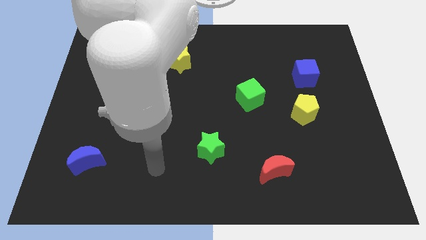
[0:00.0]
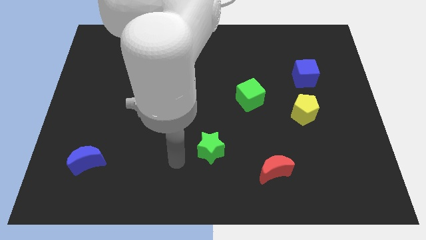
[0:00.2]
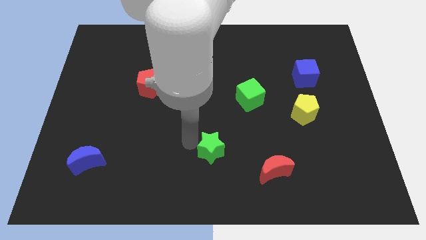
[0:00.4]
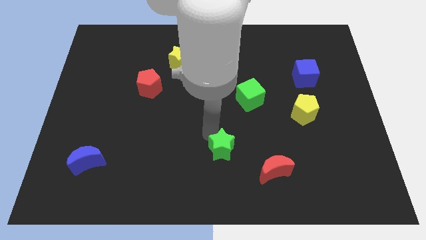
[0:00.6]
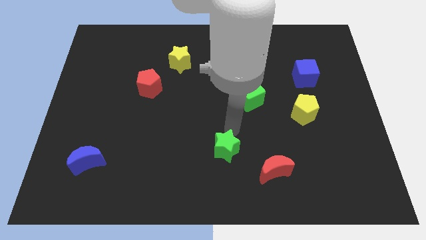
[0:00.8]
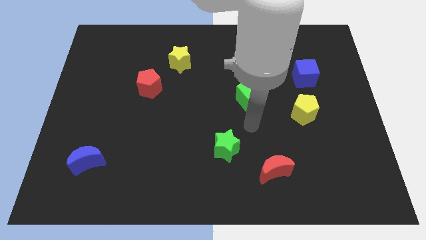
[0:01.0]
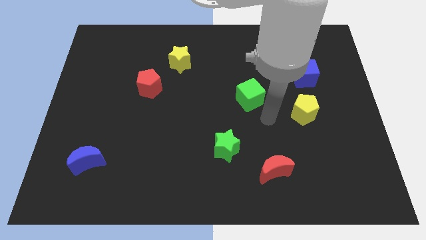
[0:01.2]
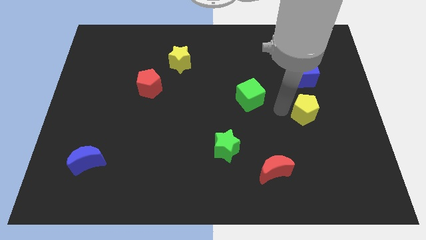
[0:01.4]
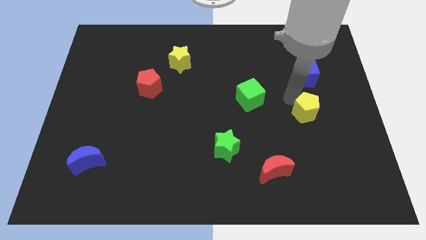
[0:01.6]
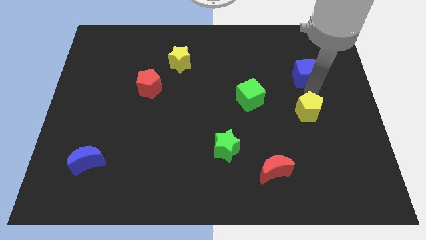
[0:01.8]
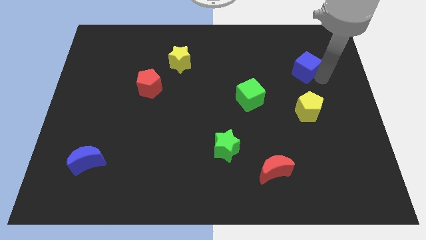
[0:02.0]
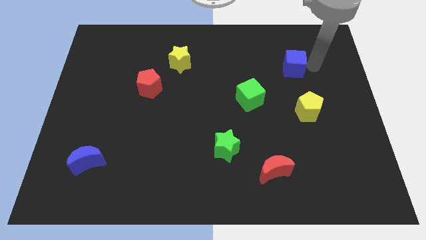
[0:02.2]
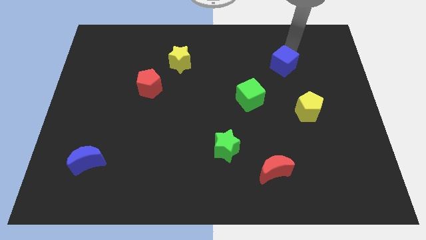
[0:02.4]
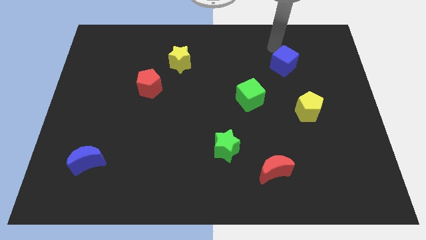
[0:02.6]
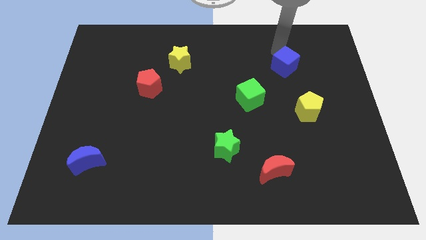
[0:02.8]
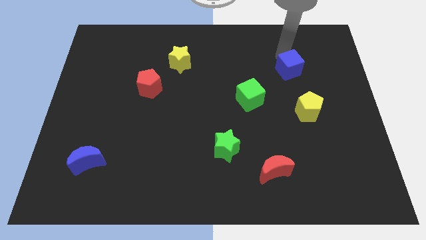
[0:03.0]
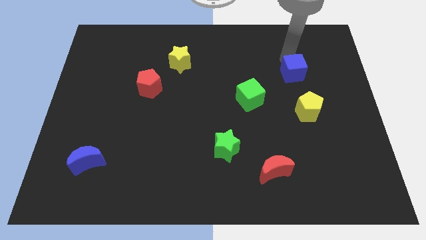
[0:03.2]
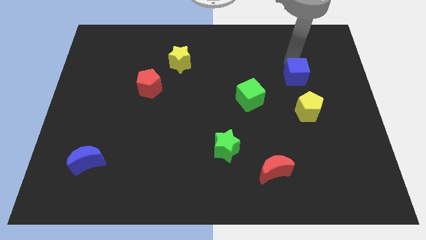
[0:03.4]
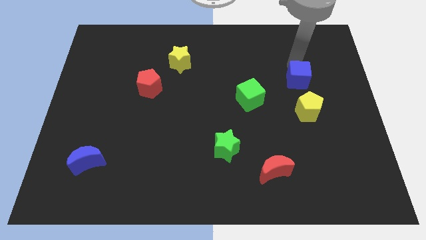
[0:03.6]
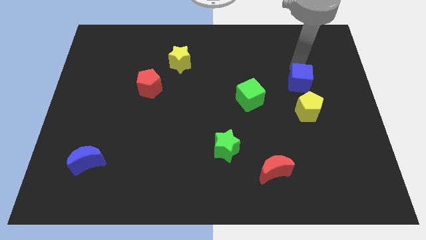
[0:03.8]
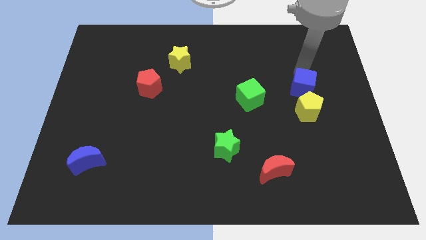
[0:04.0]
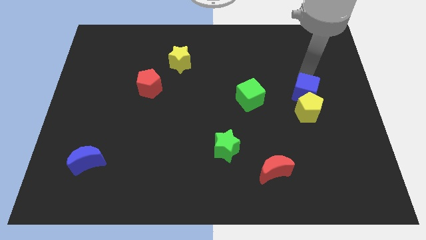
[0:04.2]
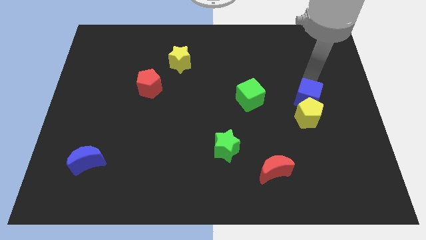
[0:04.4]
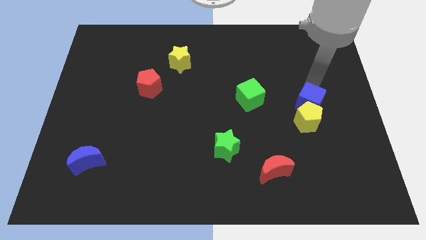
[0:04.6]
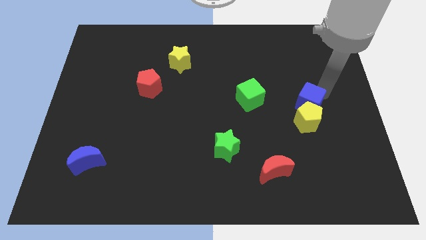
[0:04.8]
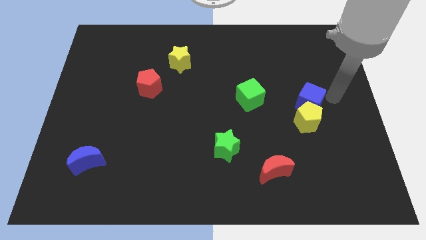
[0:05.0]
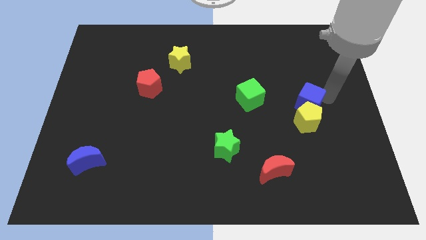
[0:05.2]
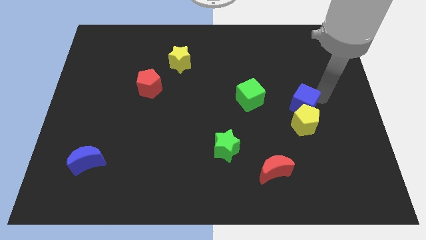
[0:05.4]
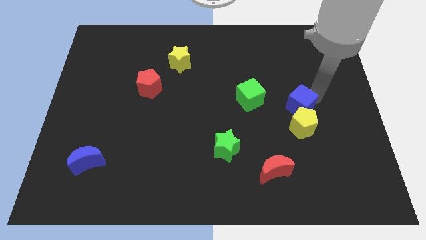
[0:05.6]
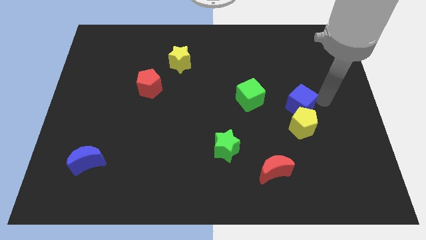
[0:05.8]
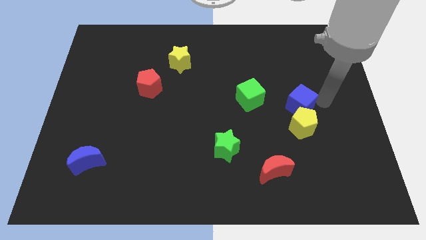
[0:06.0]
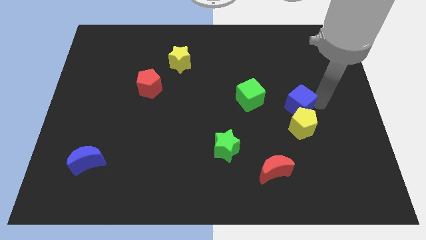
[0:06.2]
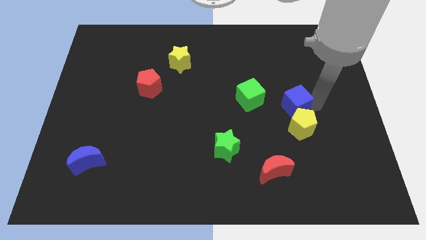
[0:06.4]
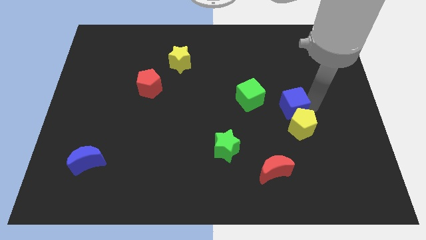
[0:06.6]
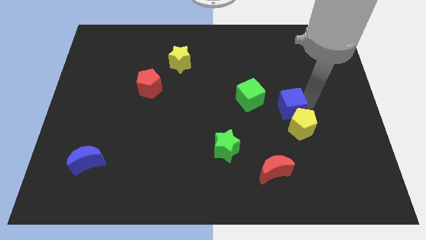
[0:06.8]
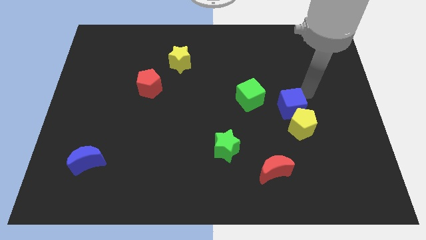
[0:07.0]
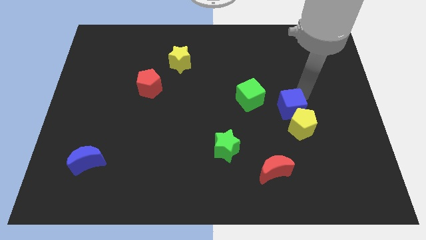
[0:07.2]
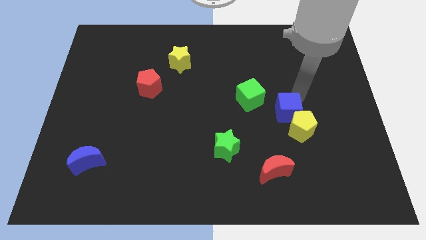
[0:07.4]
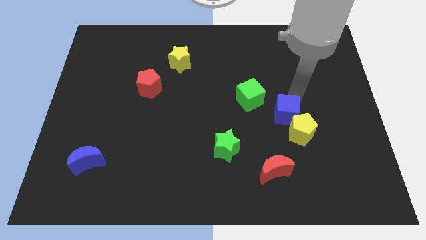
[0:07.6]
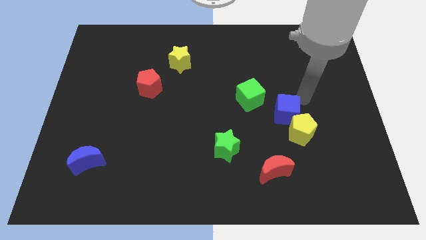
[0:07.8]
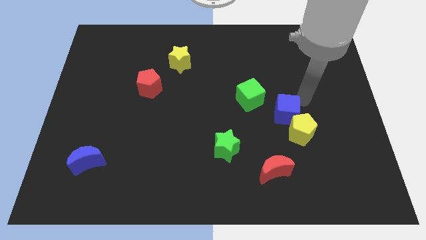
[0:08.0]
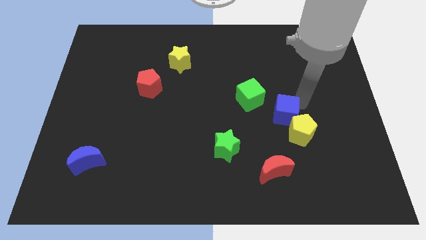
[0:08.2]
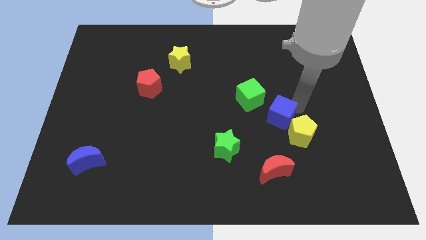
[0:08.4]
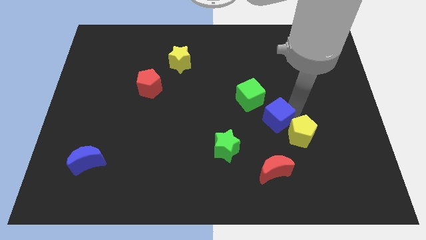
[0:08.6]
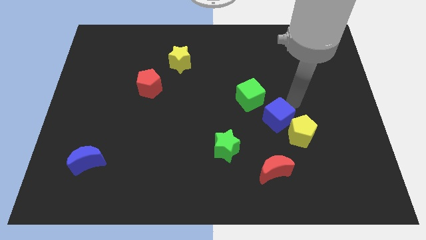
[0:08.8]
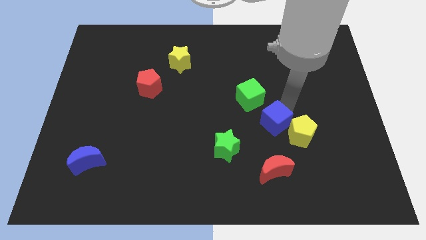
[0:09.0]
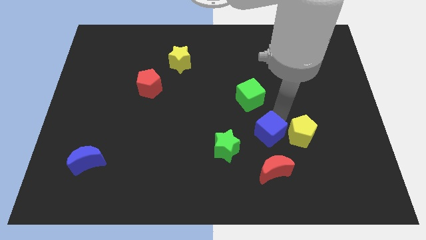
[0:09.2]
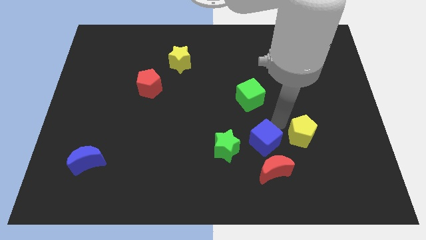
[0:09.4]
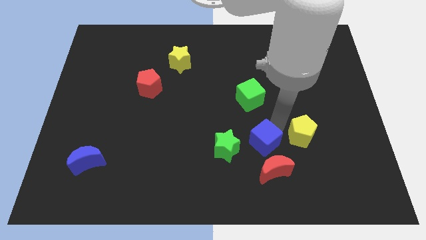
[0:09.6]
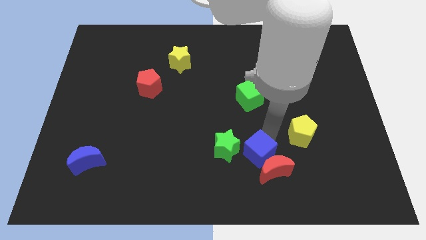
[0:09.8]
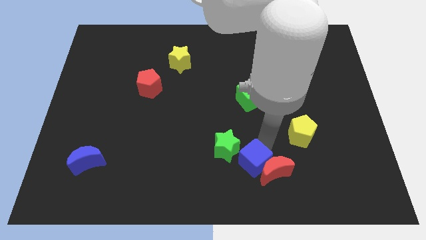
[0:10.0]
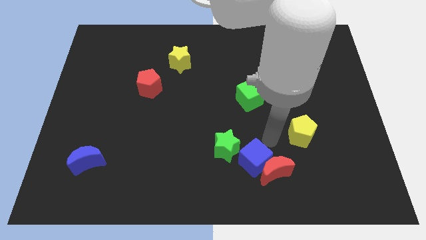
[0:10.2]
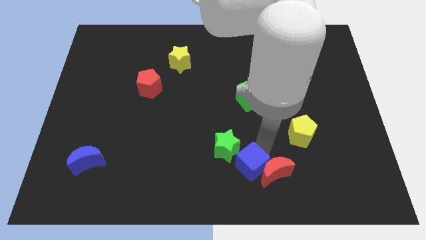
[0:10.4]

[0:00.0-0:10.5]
move the blue cube to the bottom side

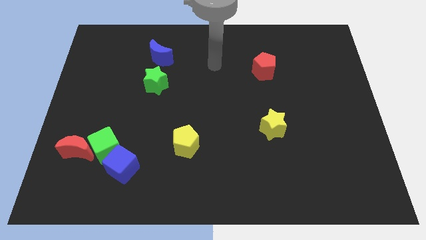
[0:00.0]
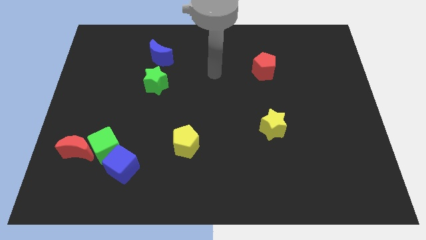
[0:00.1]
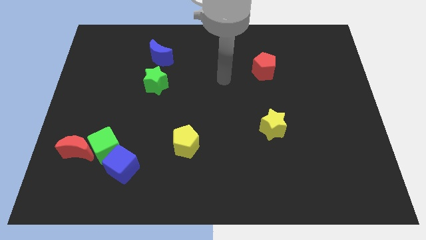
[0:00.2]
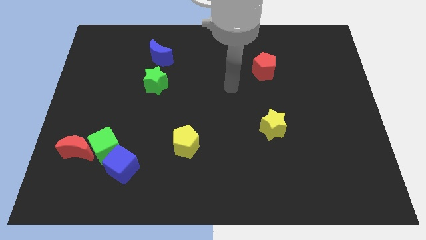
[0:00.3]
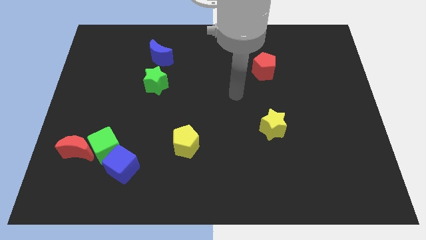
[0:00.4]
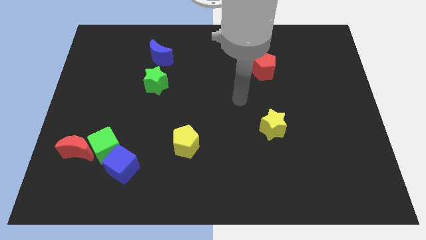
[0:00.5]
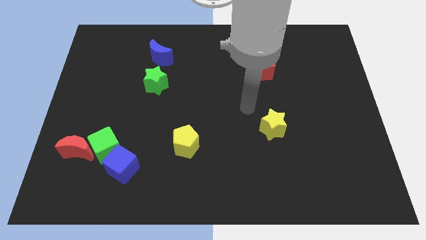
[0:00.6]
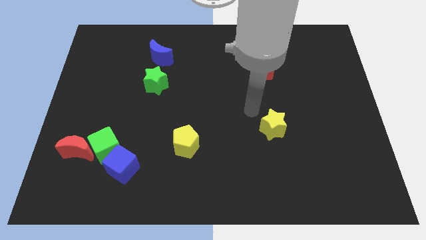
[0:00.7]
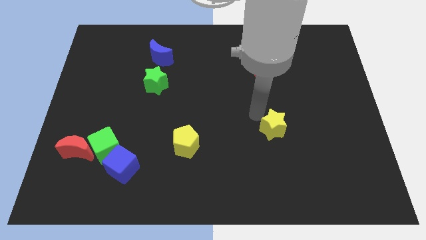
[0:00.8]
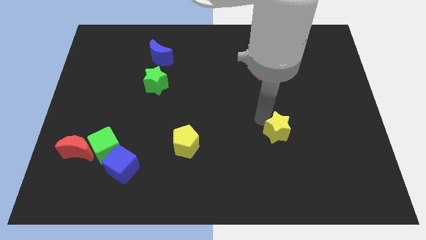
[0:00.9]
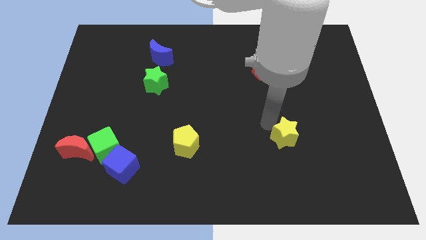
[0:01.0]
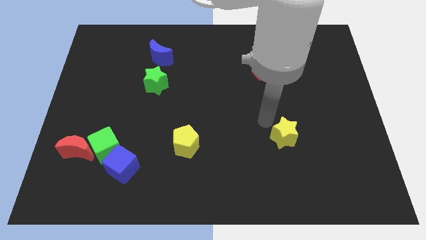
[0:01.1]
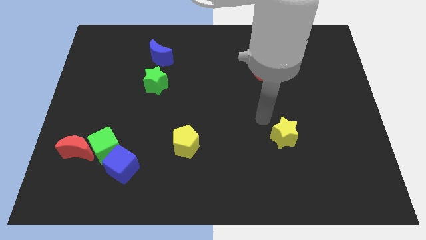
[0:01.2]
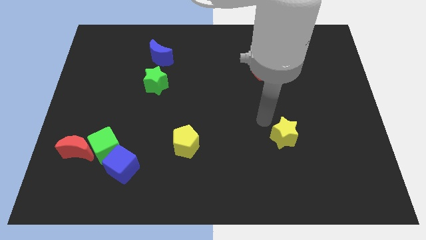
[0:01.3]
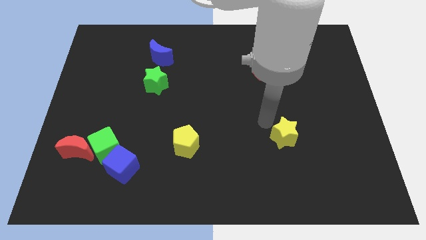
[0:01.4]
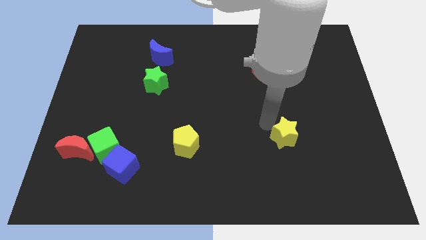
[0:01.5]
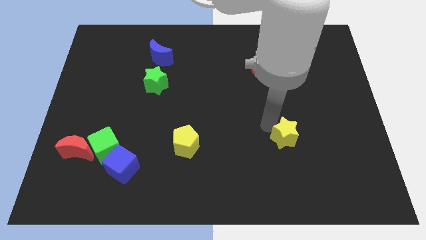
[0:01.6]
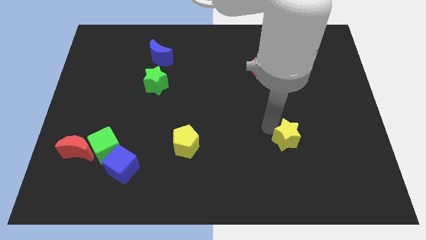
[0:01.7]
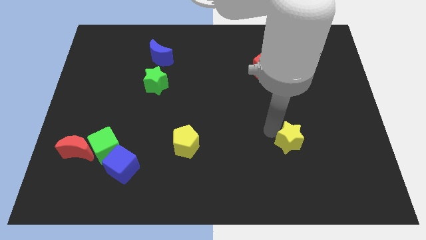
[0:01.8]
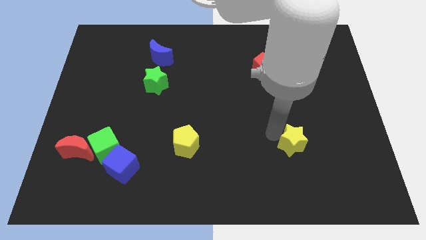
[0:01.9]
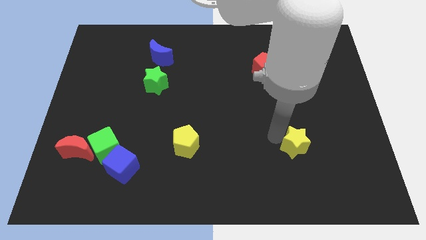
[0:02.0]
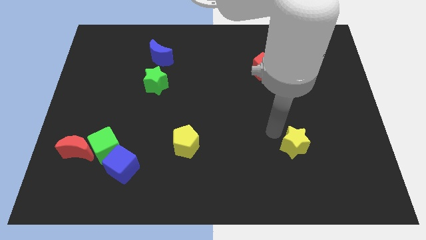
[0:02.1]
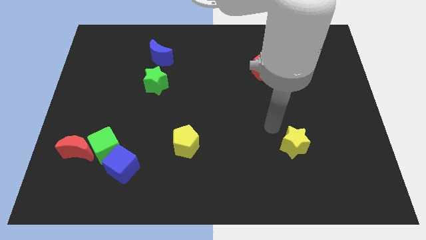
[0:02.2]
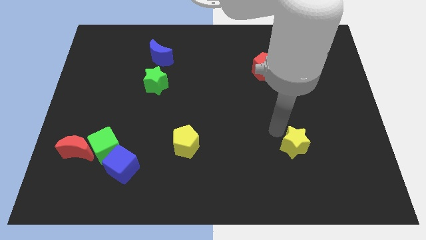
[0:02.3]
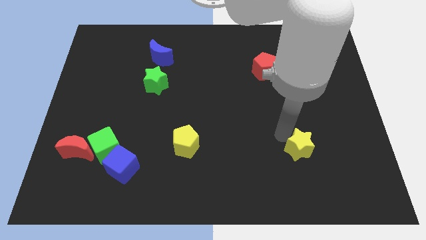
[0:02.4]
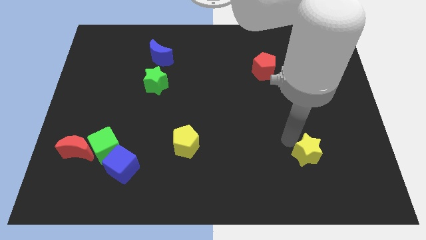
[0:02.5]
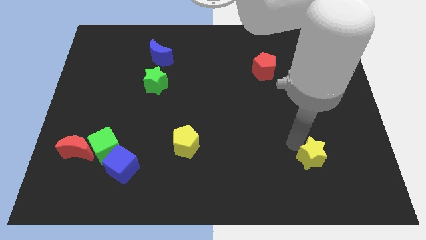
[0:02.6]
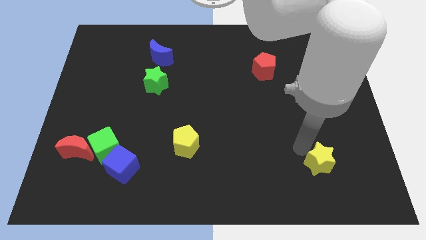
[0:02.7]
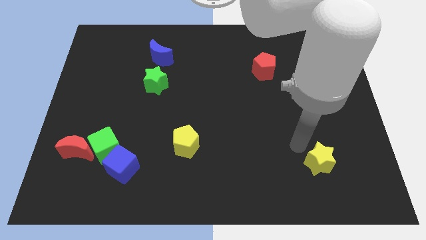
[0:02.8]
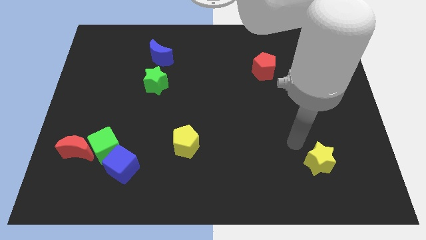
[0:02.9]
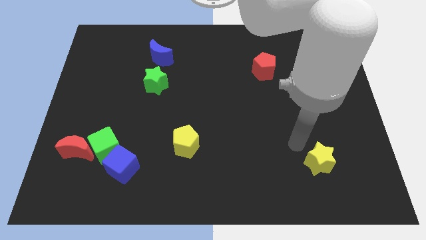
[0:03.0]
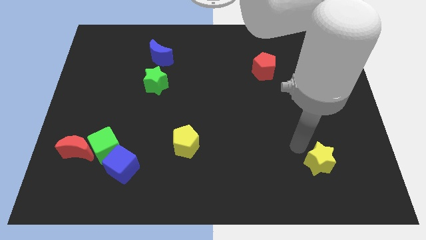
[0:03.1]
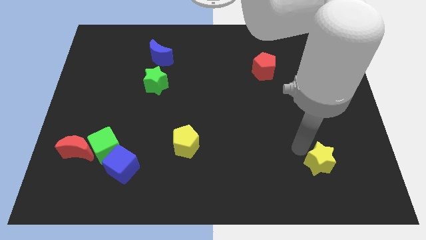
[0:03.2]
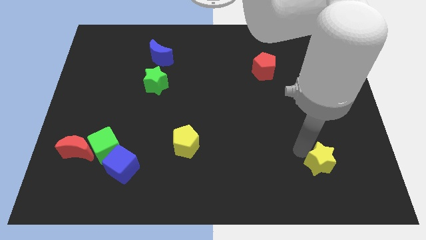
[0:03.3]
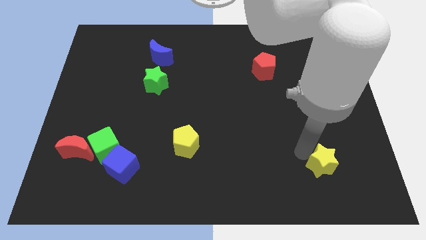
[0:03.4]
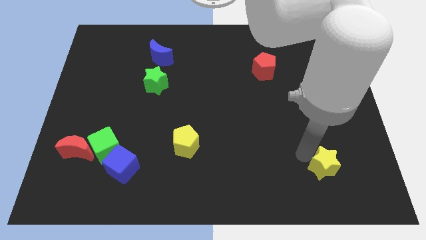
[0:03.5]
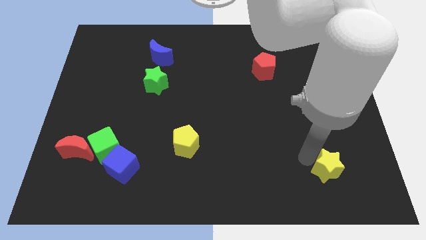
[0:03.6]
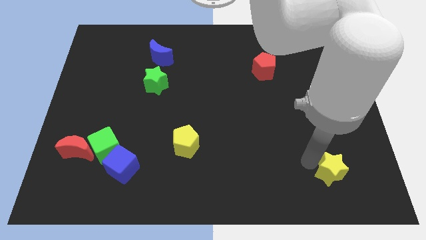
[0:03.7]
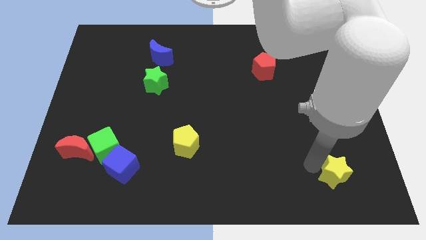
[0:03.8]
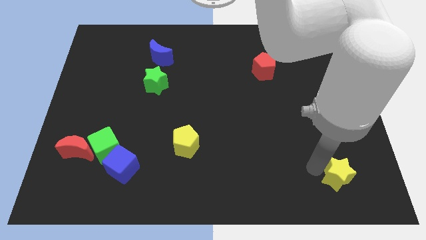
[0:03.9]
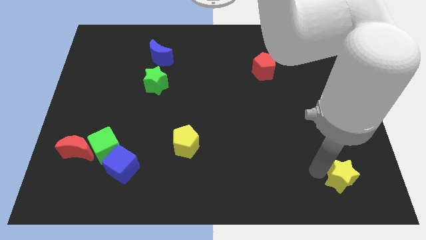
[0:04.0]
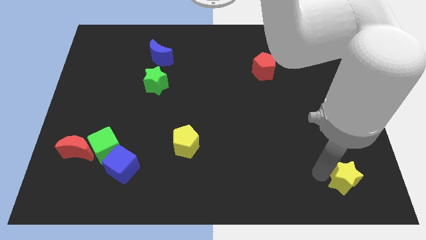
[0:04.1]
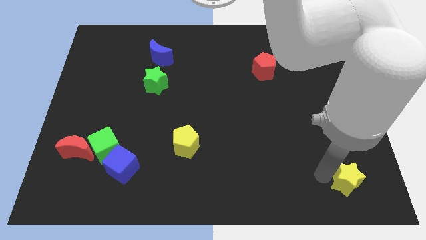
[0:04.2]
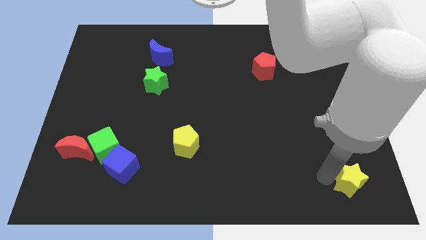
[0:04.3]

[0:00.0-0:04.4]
slide the yellow star to the bottom right
